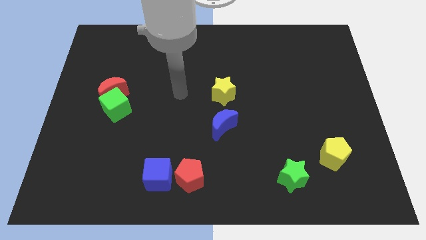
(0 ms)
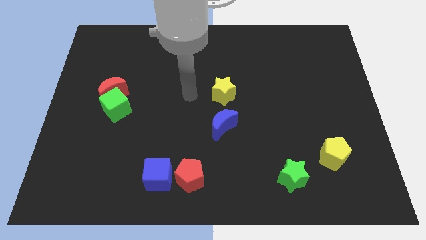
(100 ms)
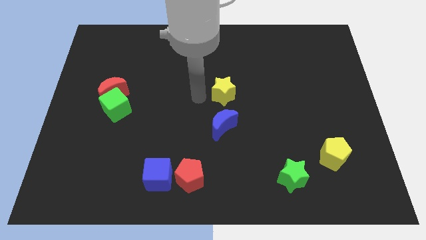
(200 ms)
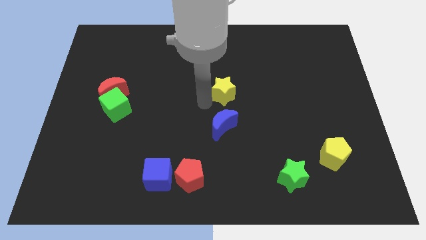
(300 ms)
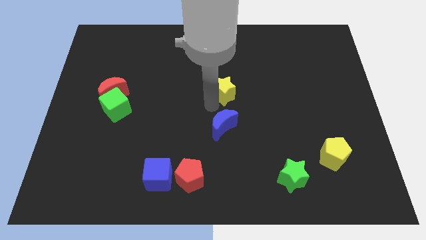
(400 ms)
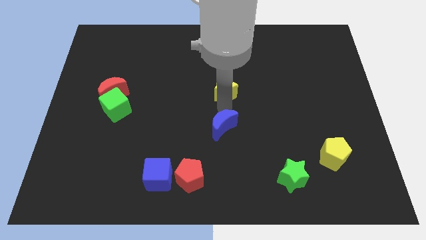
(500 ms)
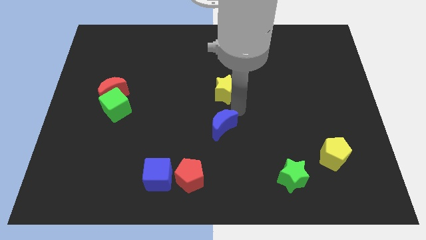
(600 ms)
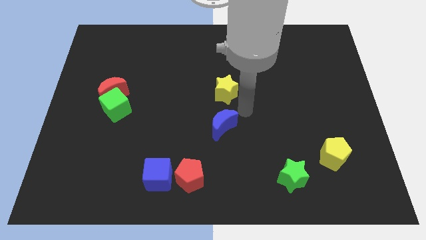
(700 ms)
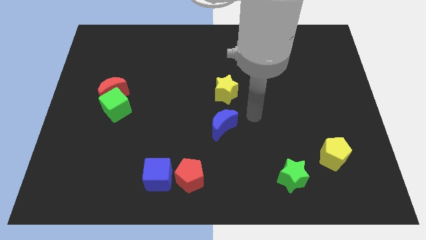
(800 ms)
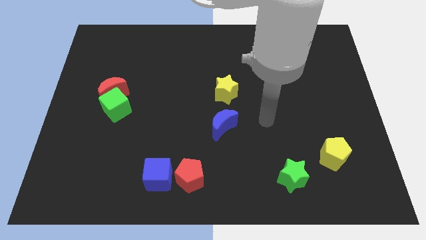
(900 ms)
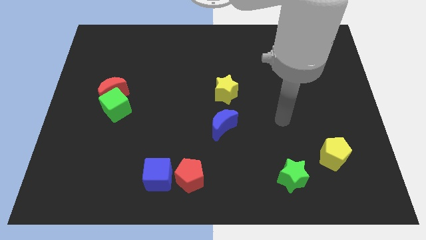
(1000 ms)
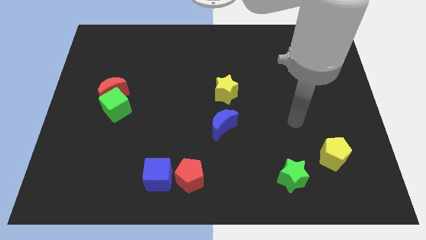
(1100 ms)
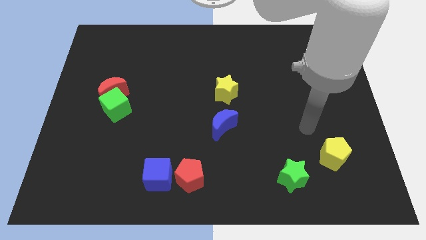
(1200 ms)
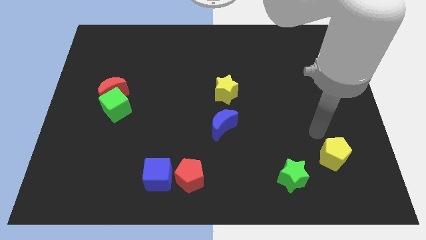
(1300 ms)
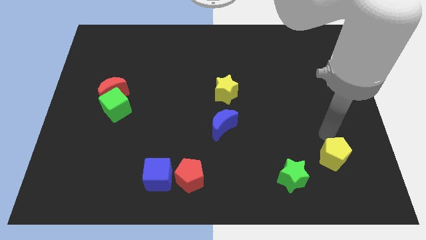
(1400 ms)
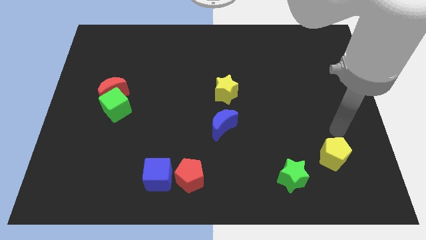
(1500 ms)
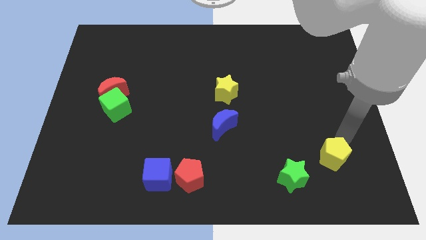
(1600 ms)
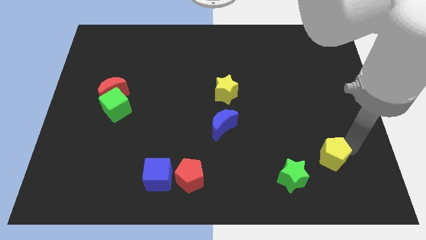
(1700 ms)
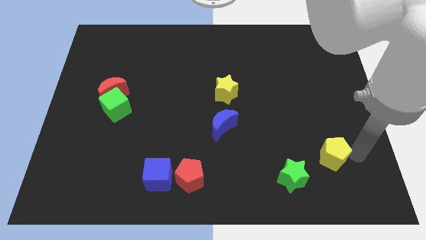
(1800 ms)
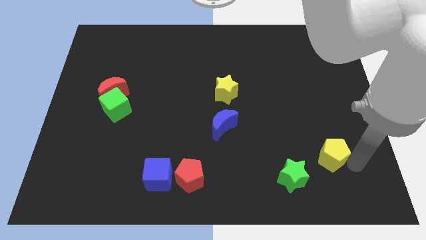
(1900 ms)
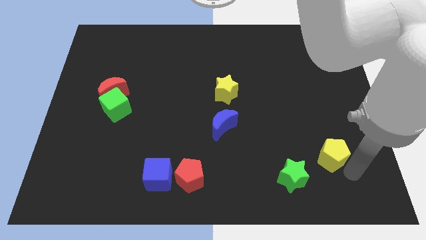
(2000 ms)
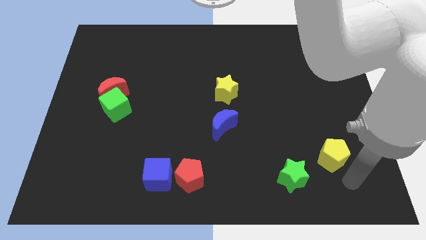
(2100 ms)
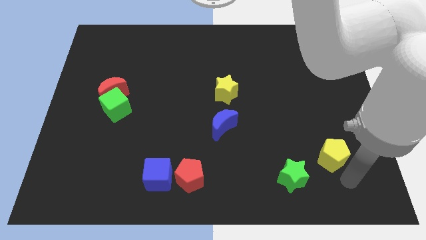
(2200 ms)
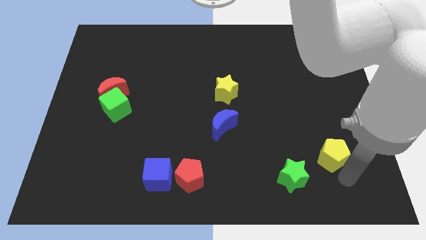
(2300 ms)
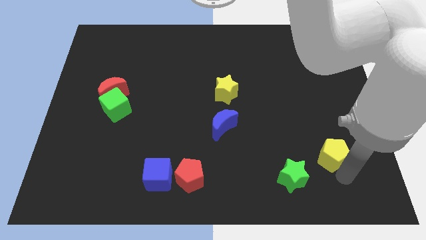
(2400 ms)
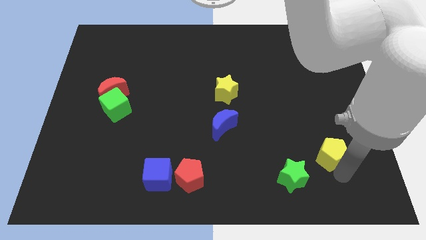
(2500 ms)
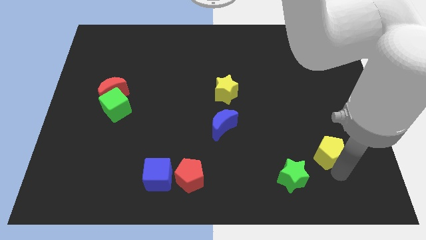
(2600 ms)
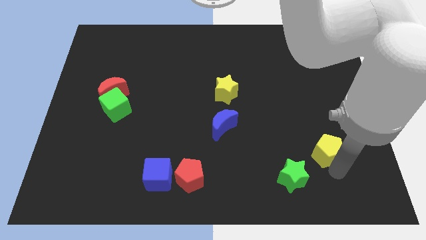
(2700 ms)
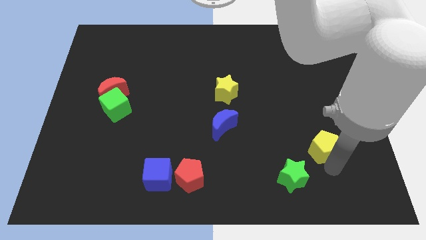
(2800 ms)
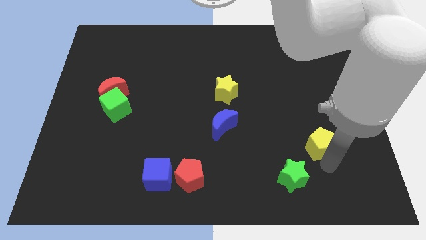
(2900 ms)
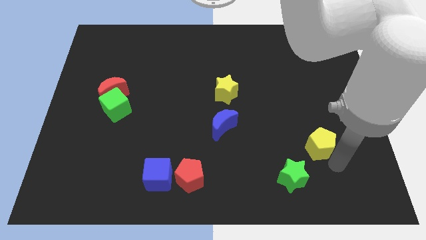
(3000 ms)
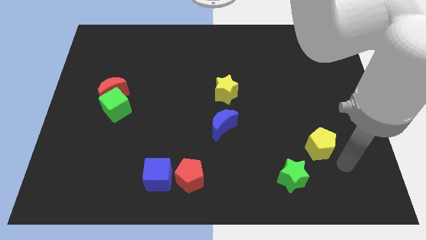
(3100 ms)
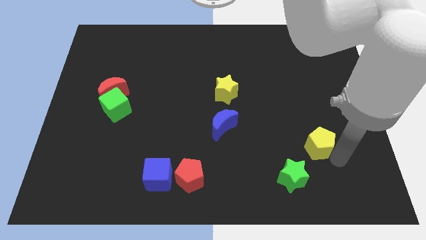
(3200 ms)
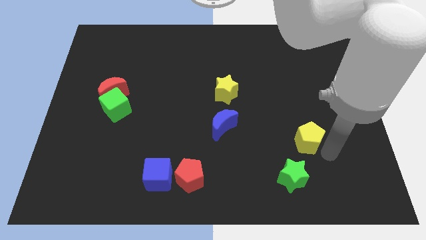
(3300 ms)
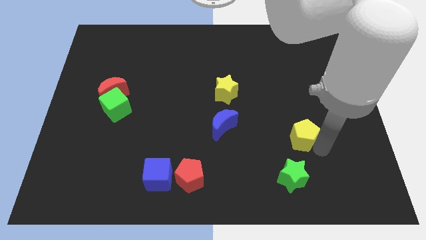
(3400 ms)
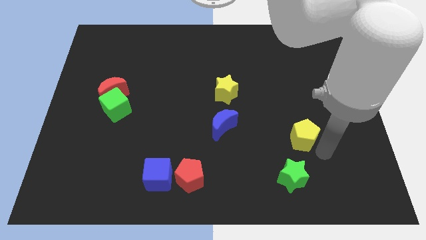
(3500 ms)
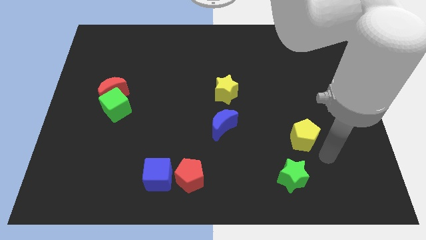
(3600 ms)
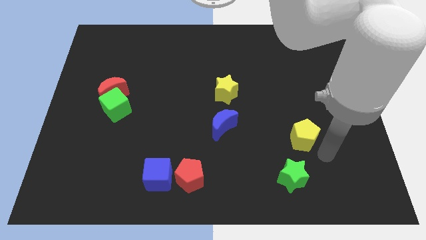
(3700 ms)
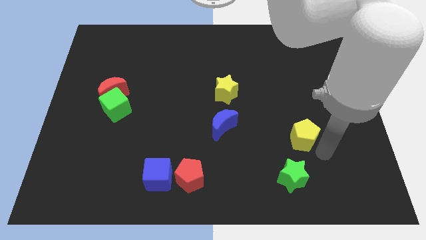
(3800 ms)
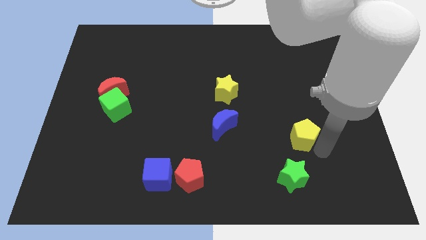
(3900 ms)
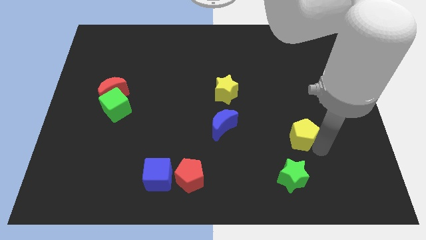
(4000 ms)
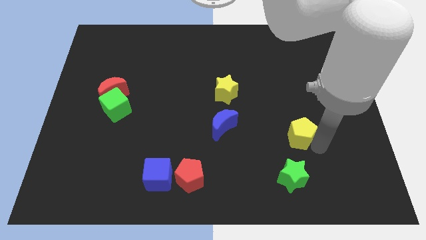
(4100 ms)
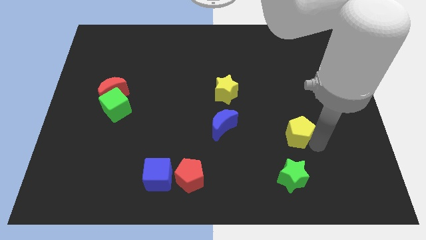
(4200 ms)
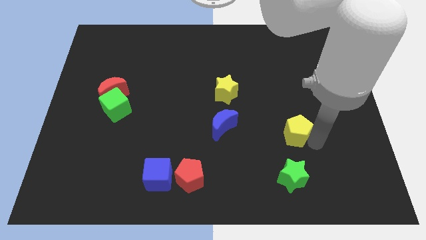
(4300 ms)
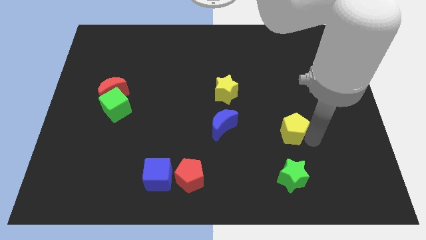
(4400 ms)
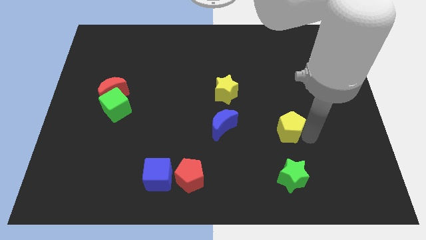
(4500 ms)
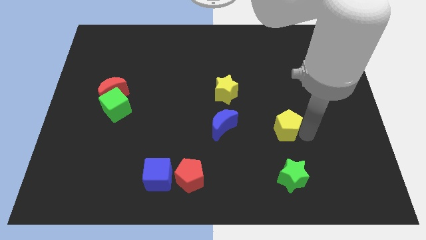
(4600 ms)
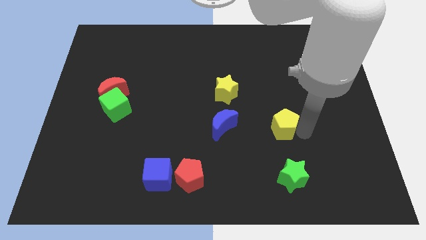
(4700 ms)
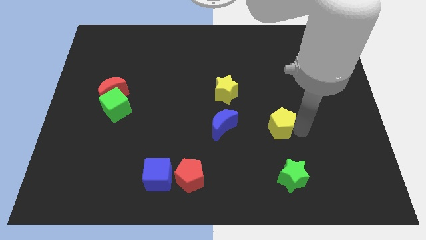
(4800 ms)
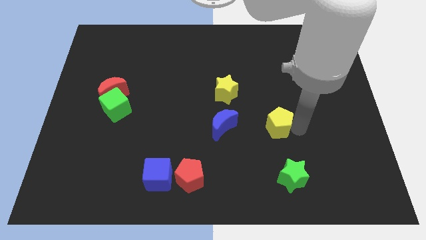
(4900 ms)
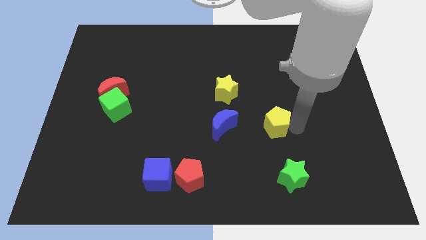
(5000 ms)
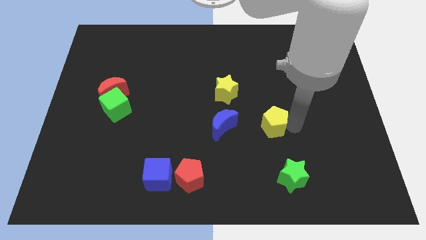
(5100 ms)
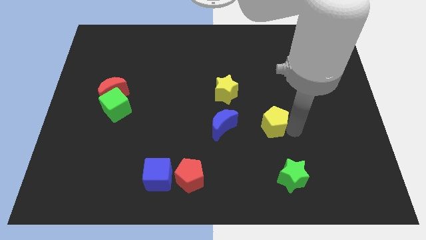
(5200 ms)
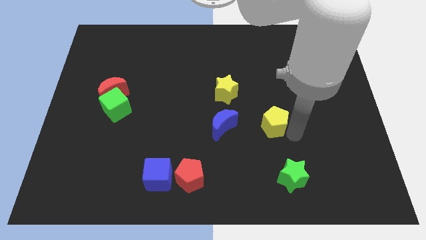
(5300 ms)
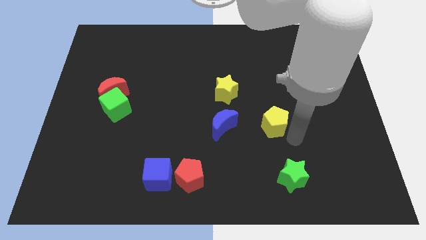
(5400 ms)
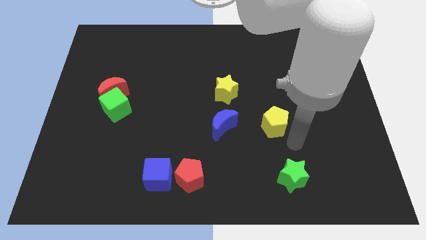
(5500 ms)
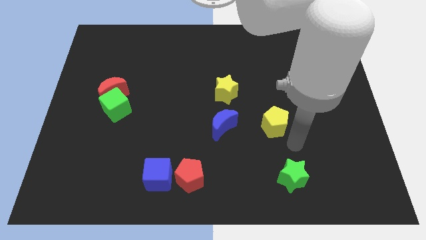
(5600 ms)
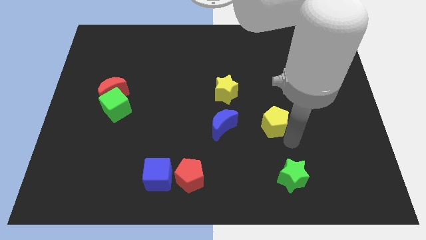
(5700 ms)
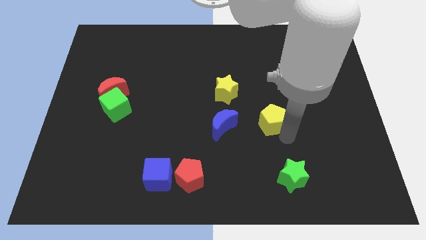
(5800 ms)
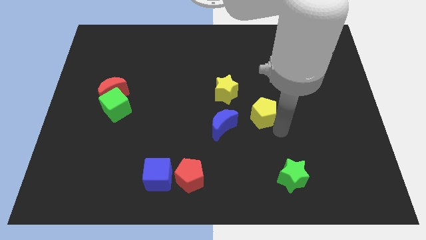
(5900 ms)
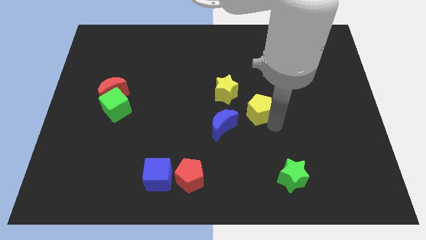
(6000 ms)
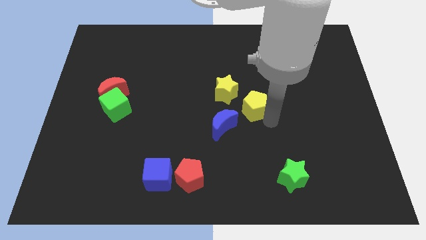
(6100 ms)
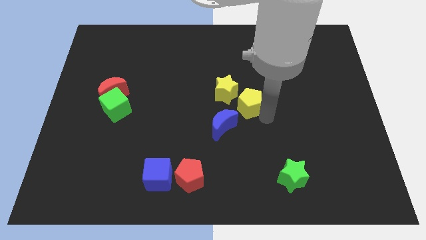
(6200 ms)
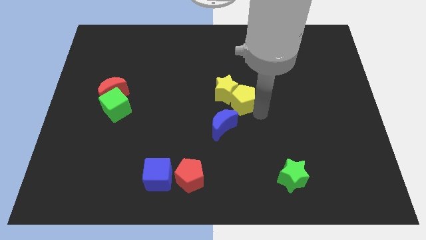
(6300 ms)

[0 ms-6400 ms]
put the yellow pentagon next to the yellow star
